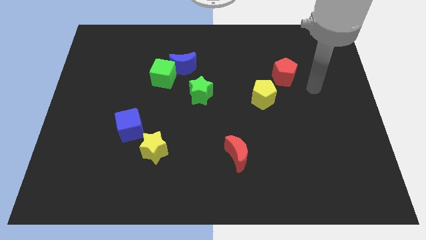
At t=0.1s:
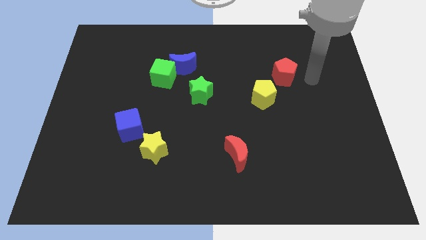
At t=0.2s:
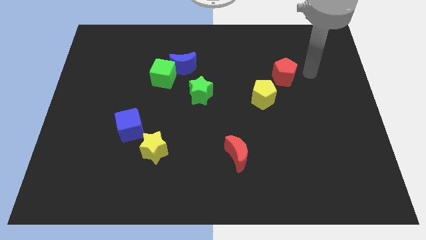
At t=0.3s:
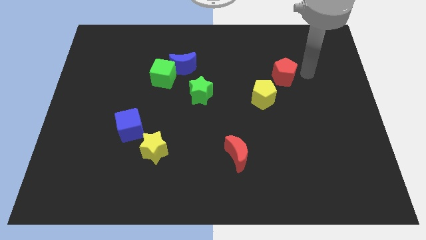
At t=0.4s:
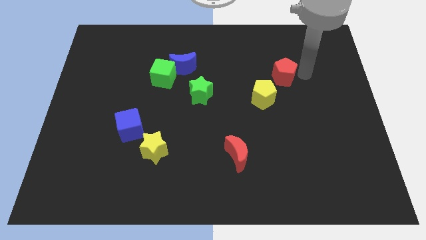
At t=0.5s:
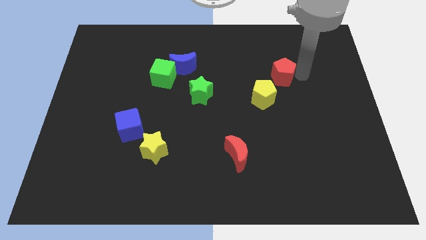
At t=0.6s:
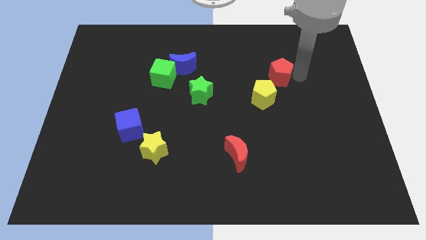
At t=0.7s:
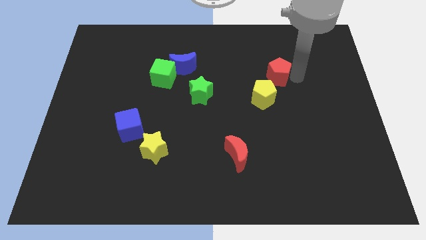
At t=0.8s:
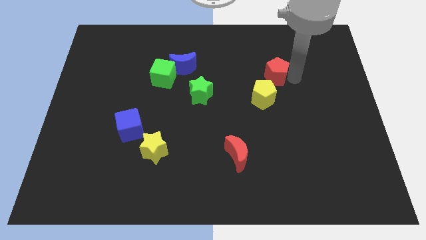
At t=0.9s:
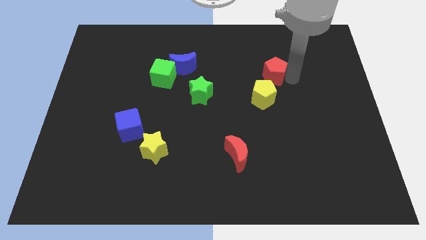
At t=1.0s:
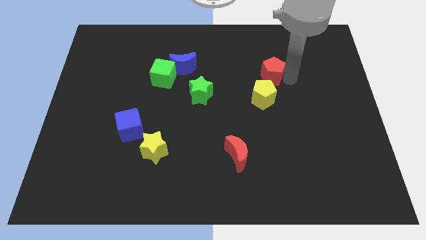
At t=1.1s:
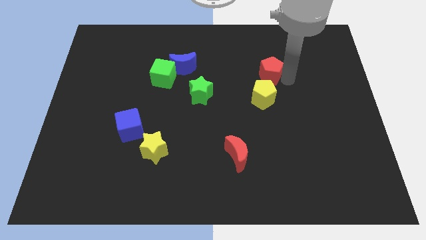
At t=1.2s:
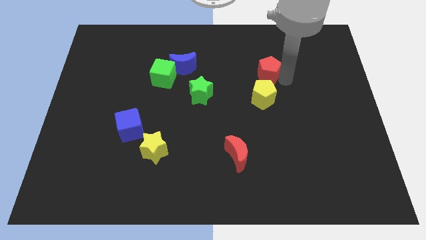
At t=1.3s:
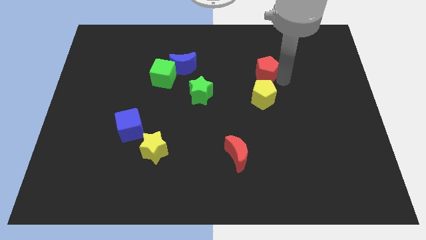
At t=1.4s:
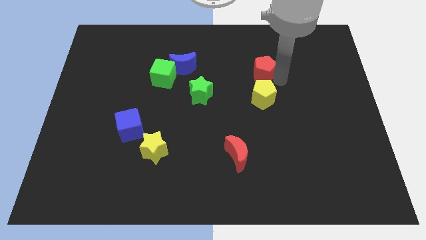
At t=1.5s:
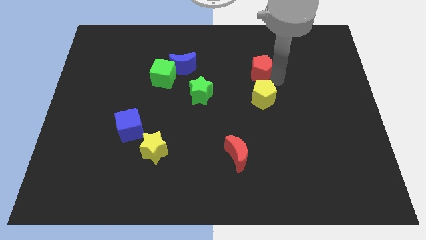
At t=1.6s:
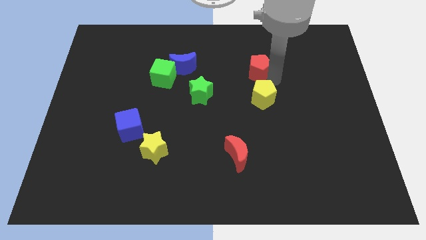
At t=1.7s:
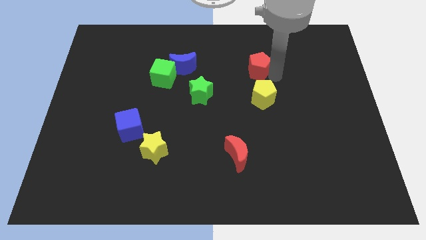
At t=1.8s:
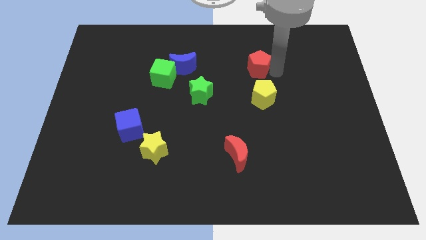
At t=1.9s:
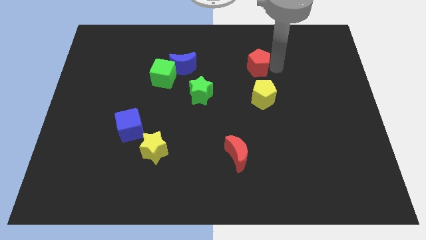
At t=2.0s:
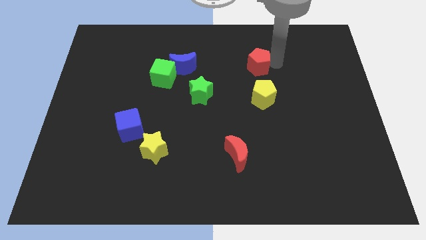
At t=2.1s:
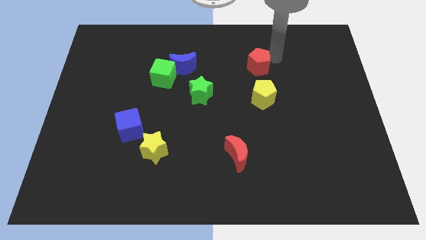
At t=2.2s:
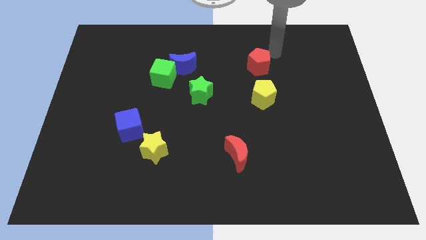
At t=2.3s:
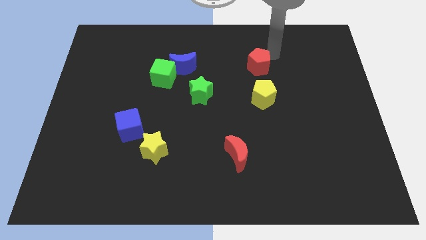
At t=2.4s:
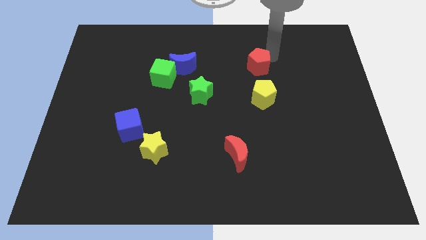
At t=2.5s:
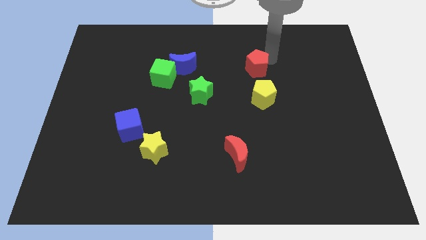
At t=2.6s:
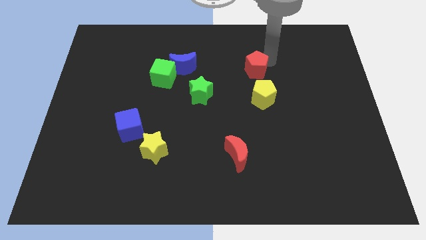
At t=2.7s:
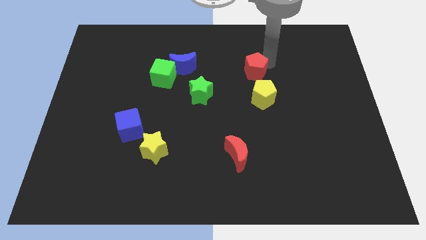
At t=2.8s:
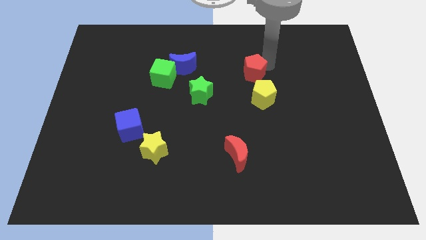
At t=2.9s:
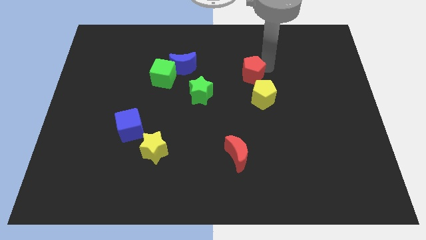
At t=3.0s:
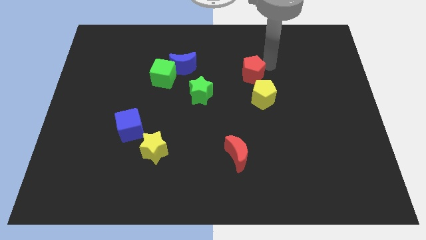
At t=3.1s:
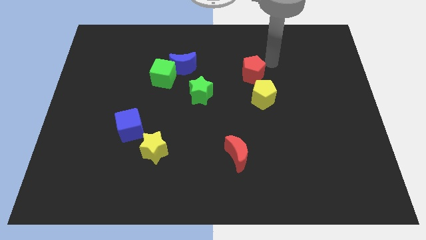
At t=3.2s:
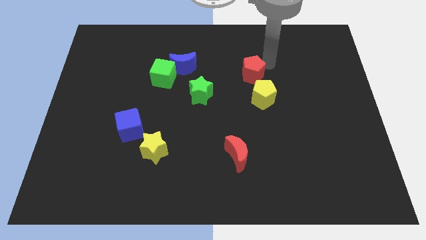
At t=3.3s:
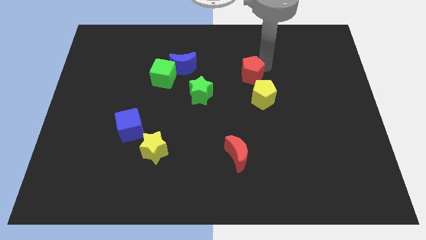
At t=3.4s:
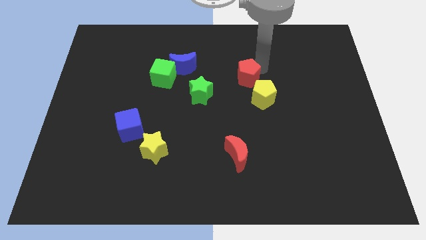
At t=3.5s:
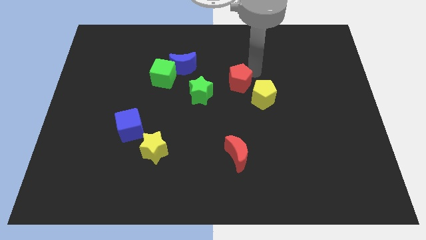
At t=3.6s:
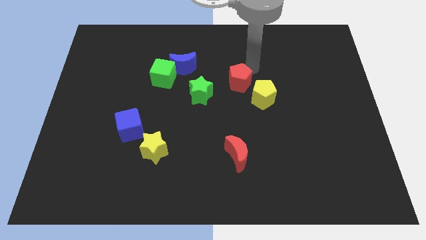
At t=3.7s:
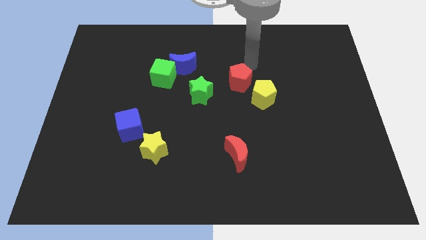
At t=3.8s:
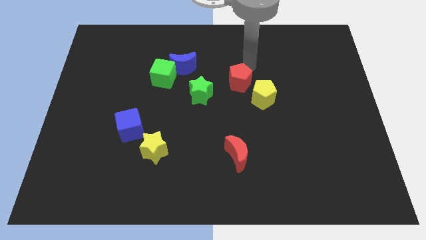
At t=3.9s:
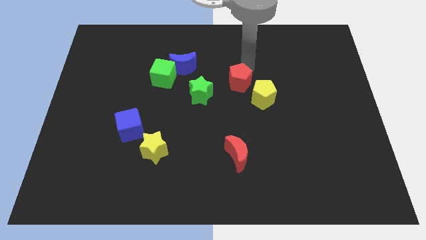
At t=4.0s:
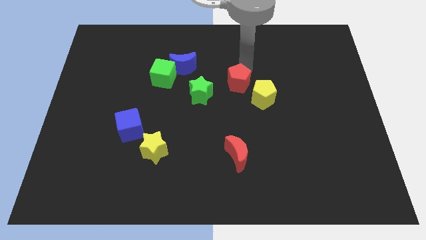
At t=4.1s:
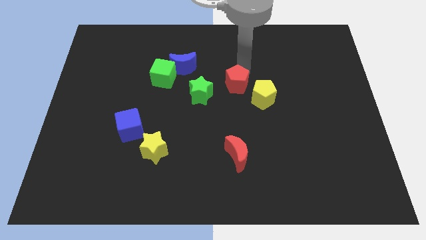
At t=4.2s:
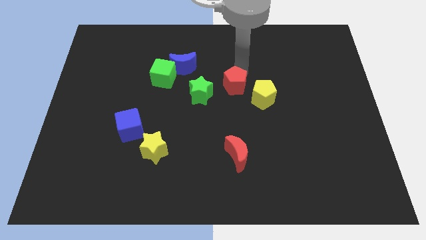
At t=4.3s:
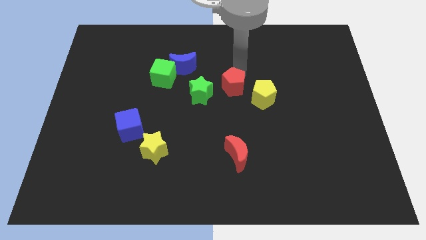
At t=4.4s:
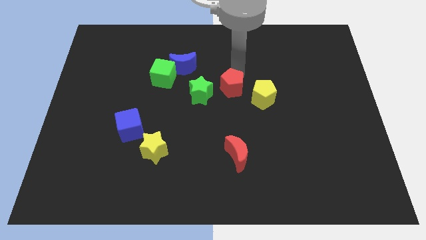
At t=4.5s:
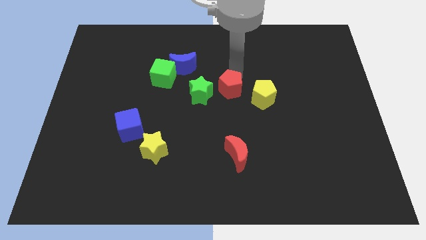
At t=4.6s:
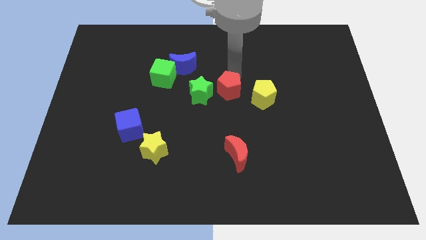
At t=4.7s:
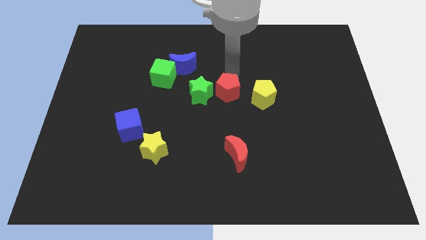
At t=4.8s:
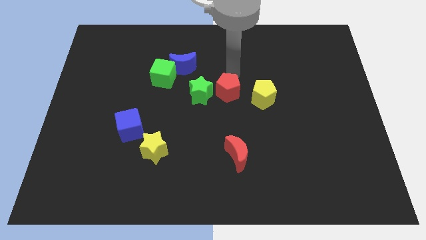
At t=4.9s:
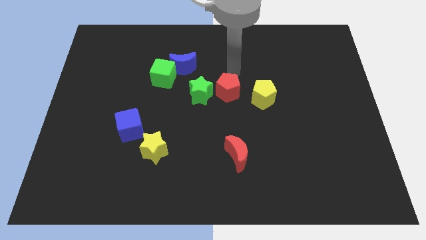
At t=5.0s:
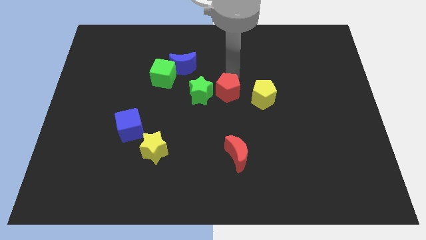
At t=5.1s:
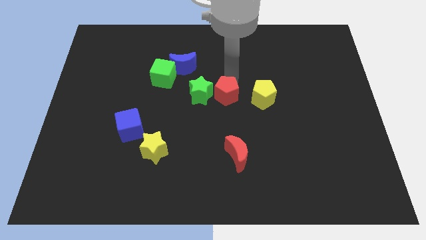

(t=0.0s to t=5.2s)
slide the red pentagon diagonally down and to the right of the green star

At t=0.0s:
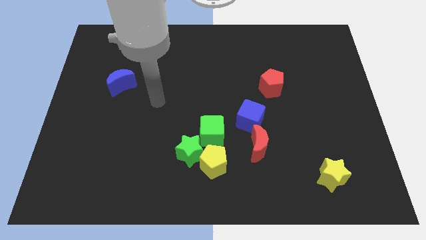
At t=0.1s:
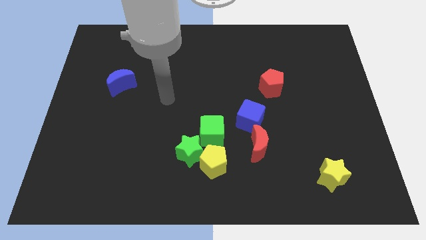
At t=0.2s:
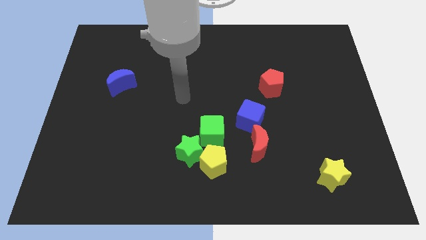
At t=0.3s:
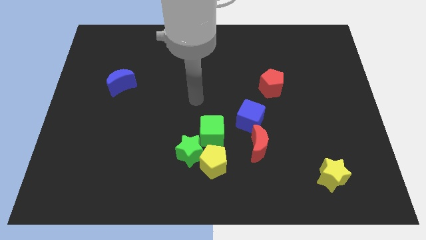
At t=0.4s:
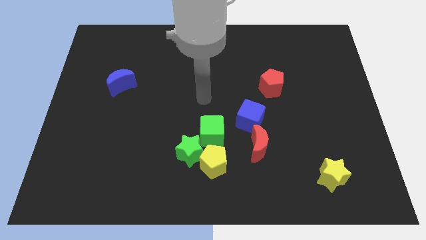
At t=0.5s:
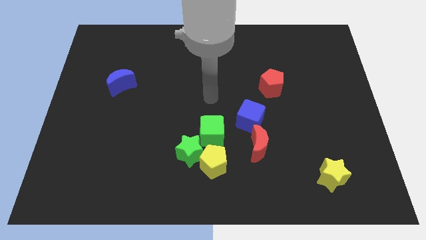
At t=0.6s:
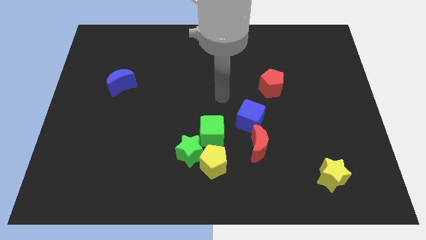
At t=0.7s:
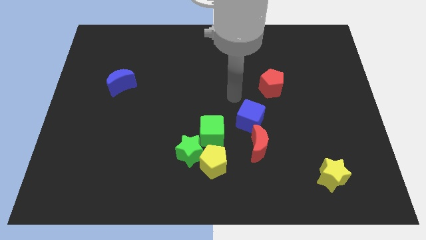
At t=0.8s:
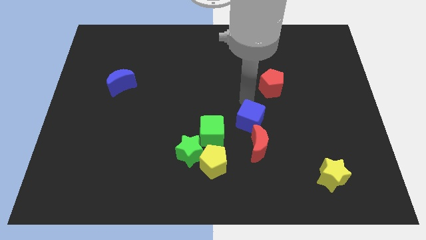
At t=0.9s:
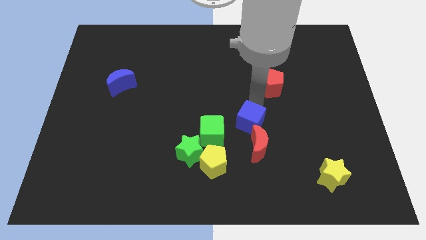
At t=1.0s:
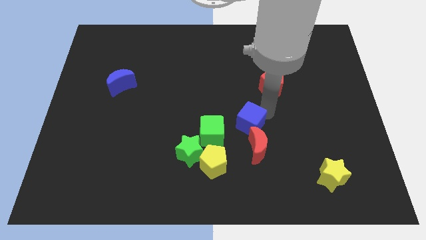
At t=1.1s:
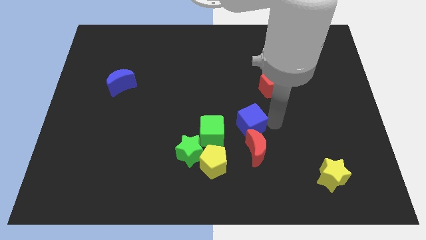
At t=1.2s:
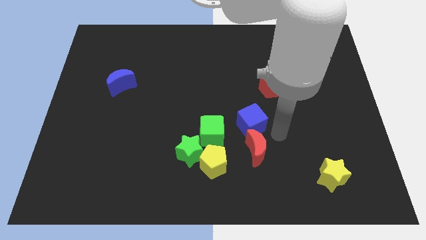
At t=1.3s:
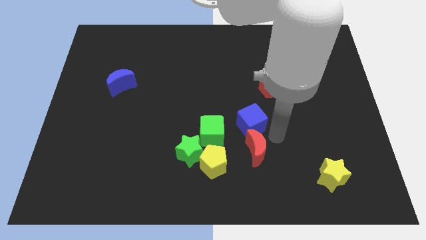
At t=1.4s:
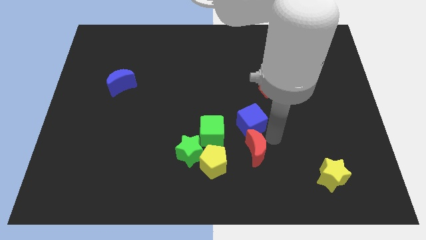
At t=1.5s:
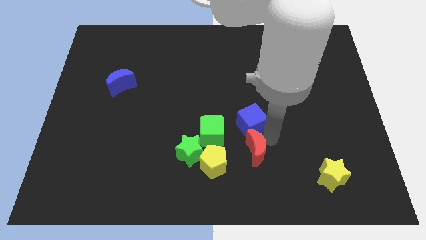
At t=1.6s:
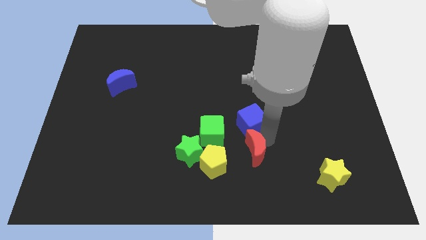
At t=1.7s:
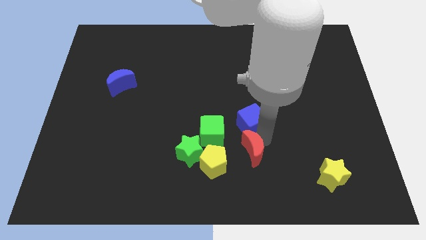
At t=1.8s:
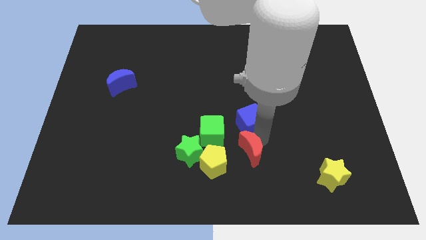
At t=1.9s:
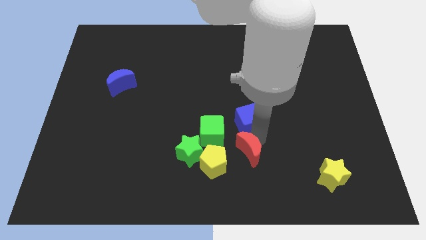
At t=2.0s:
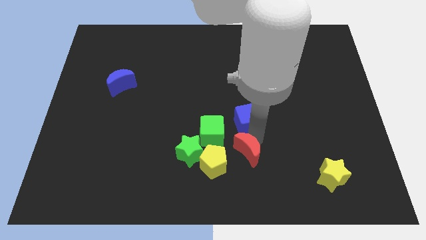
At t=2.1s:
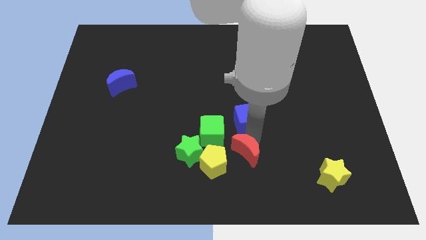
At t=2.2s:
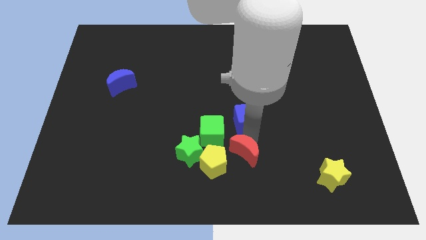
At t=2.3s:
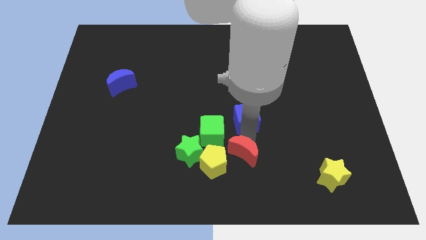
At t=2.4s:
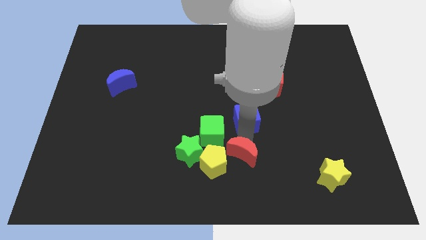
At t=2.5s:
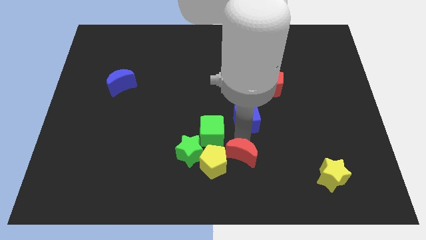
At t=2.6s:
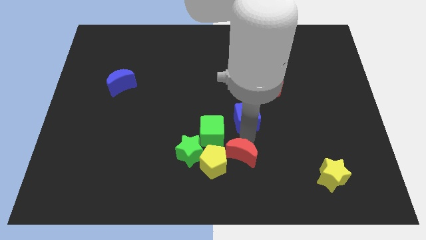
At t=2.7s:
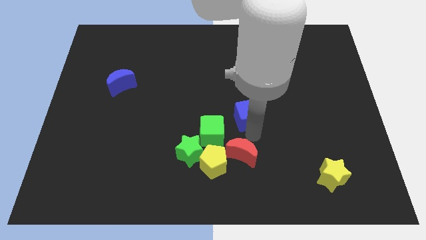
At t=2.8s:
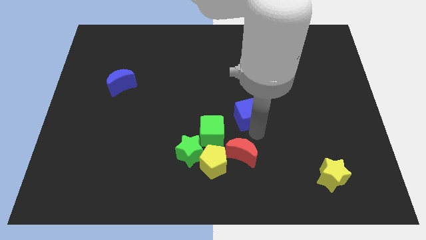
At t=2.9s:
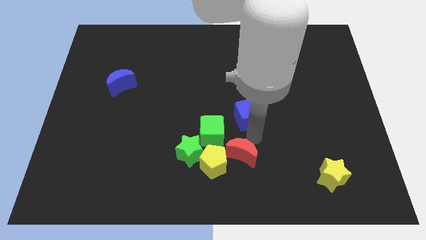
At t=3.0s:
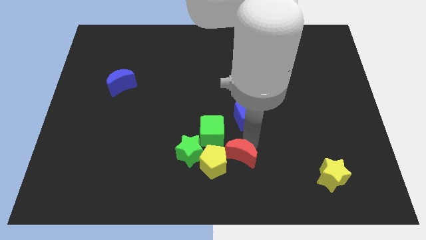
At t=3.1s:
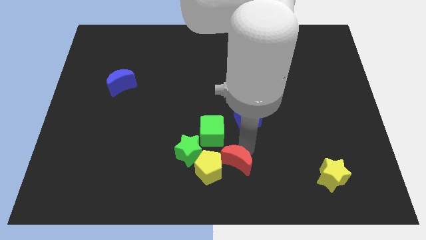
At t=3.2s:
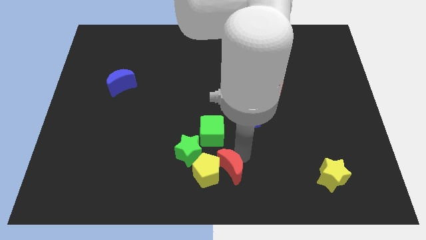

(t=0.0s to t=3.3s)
slide the red moon to the bottom right of the green star
